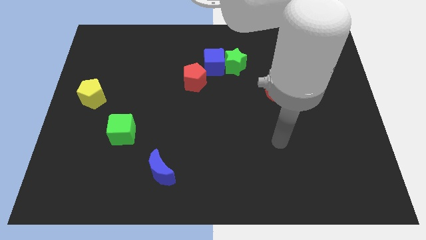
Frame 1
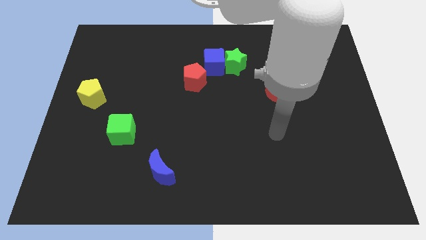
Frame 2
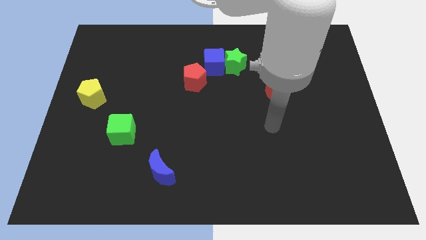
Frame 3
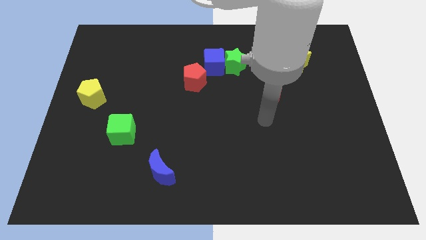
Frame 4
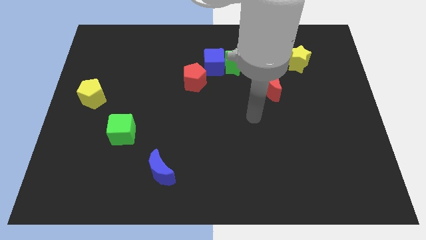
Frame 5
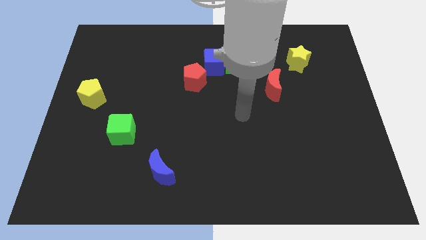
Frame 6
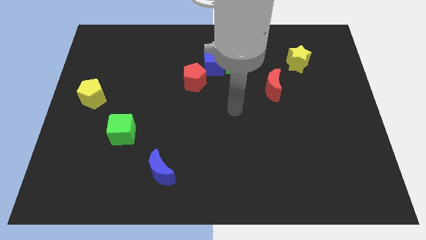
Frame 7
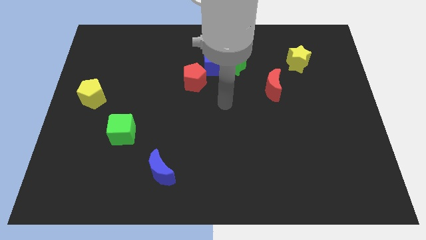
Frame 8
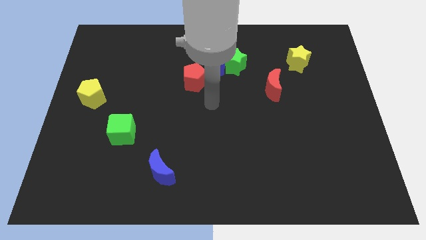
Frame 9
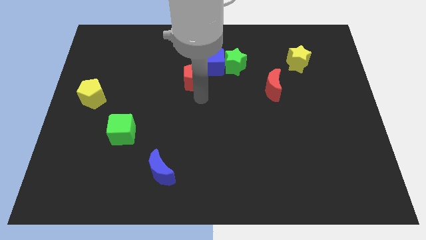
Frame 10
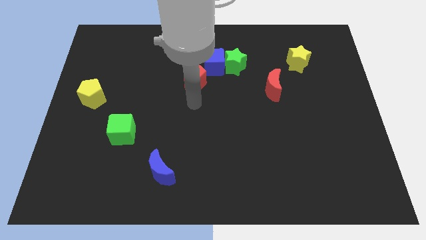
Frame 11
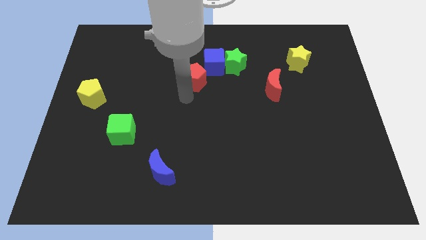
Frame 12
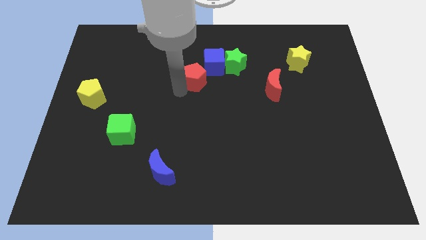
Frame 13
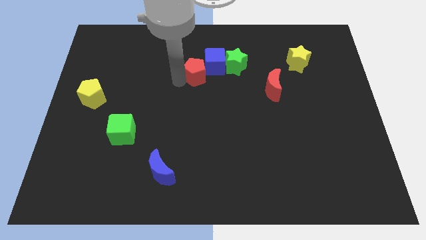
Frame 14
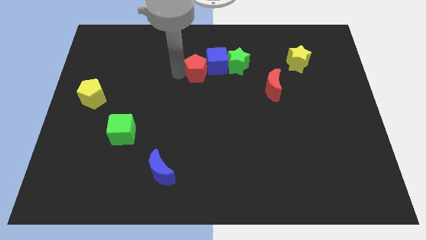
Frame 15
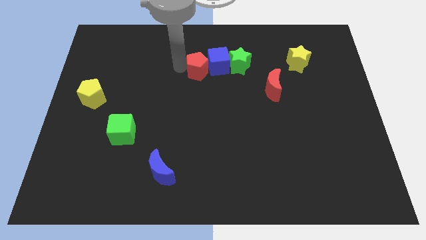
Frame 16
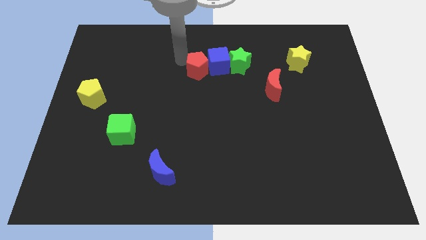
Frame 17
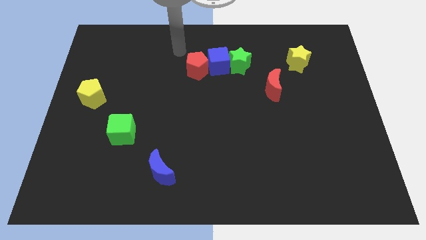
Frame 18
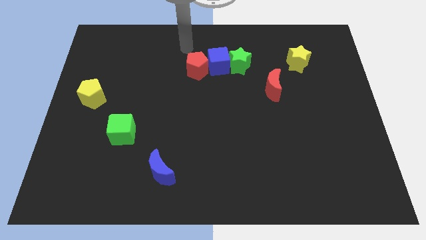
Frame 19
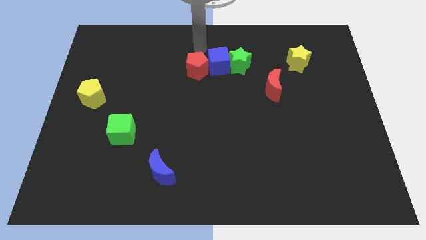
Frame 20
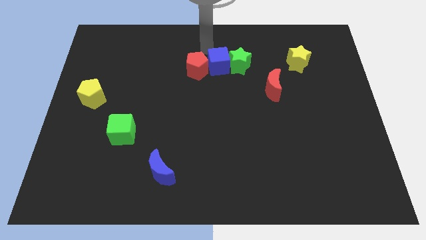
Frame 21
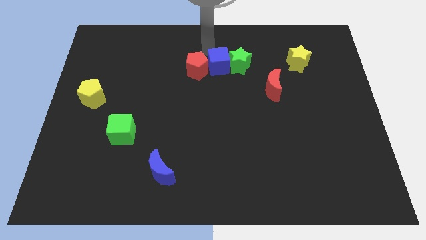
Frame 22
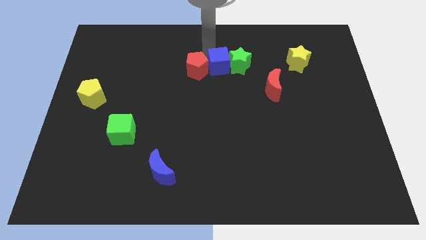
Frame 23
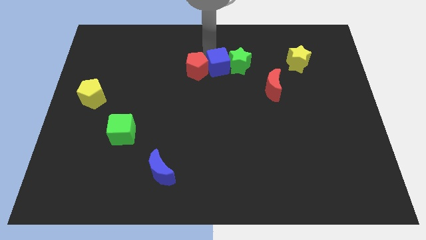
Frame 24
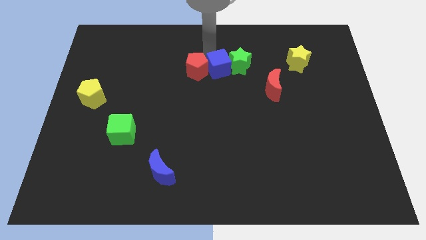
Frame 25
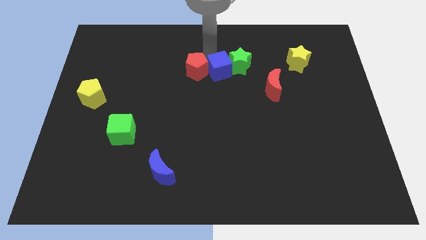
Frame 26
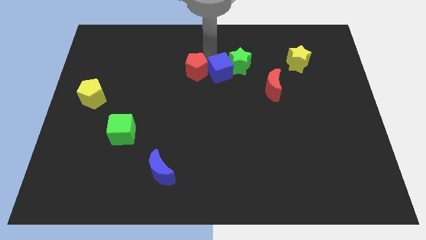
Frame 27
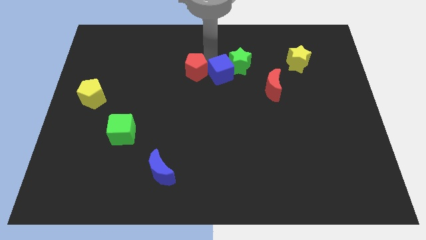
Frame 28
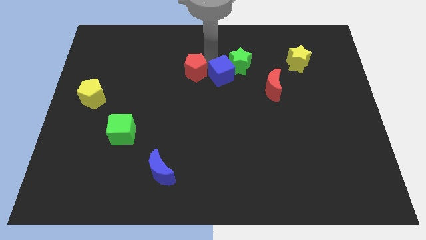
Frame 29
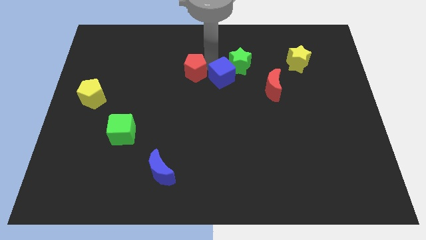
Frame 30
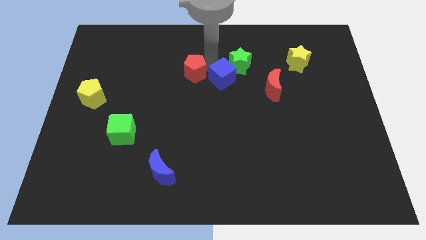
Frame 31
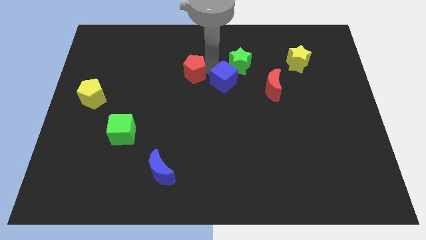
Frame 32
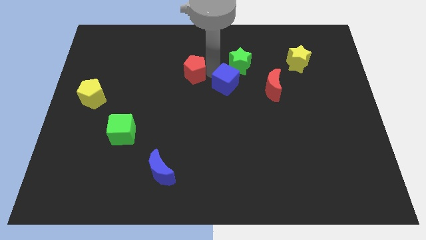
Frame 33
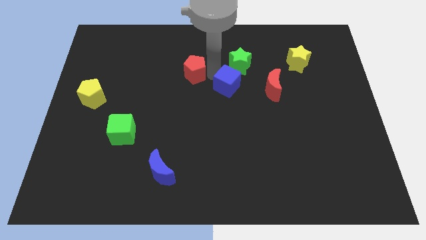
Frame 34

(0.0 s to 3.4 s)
slightly move the blue cube down and right diagonally

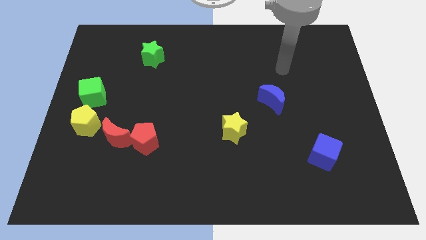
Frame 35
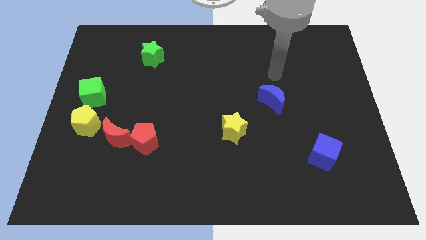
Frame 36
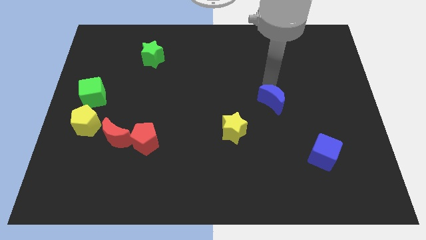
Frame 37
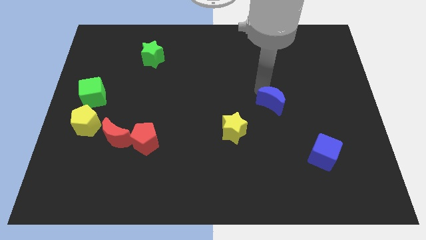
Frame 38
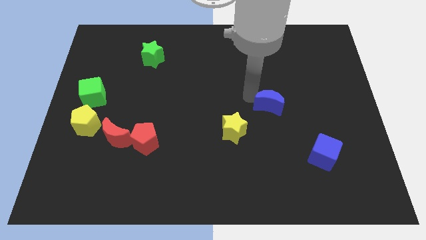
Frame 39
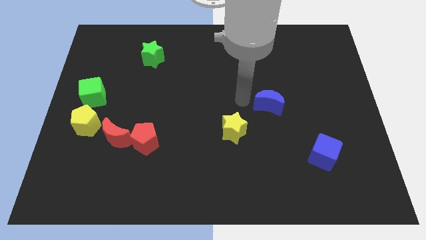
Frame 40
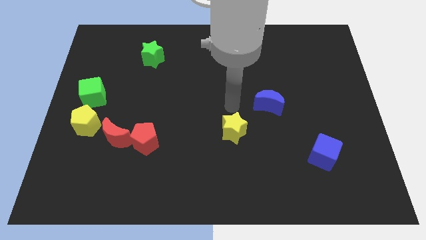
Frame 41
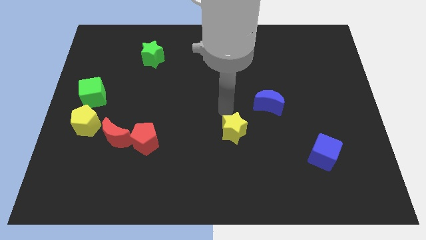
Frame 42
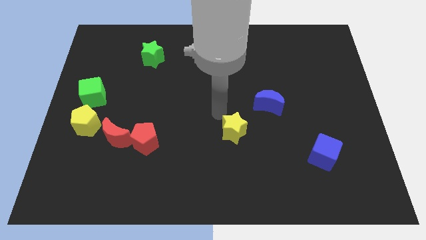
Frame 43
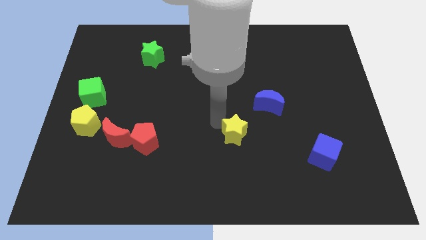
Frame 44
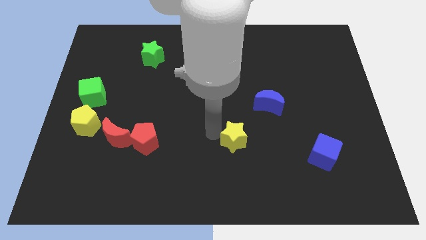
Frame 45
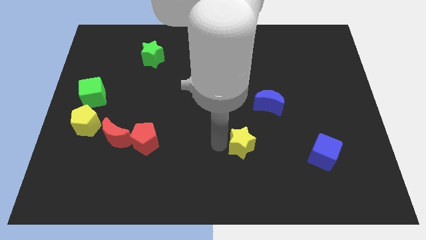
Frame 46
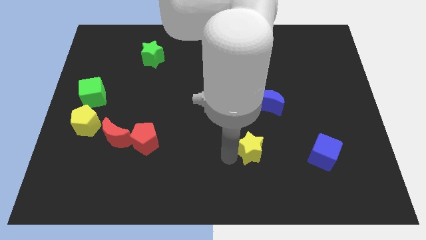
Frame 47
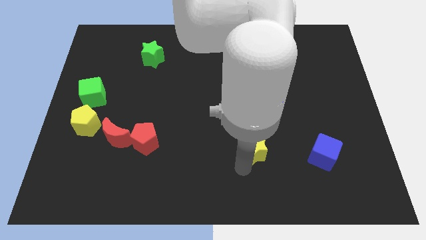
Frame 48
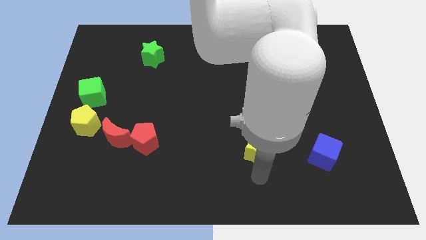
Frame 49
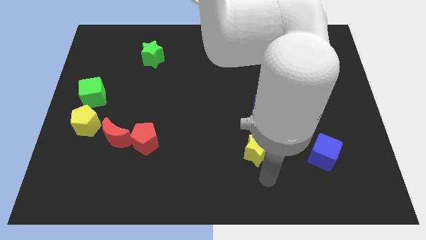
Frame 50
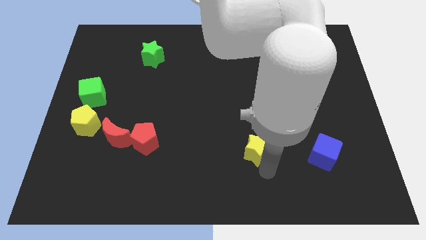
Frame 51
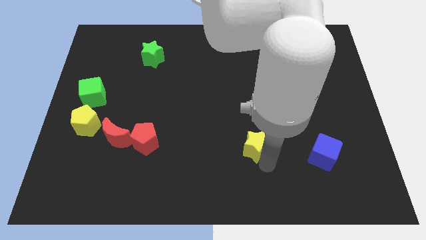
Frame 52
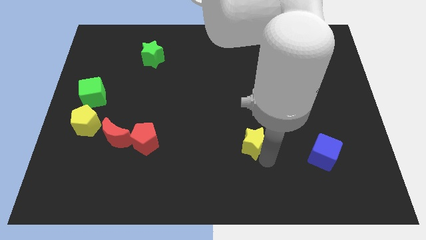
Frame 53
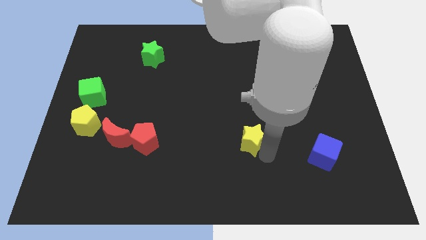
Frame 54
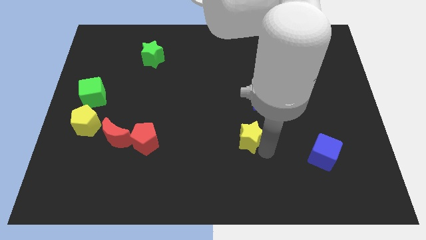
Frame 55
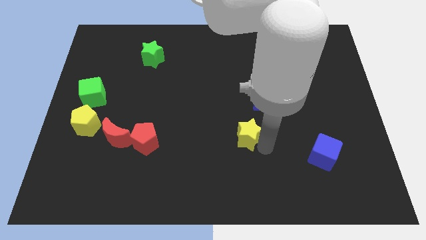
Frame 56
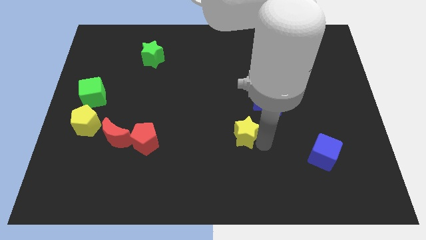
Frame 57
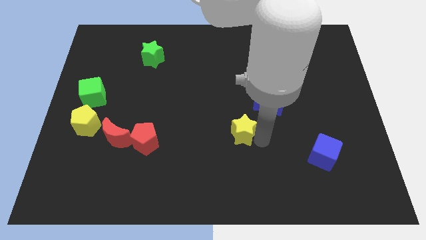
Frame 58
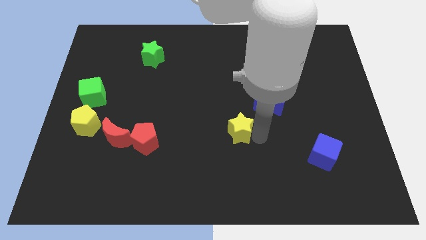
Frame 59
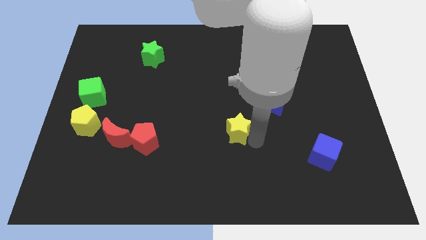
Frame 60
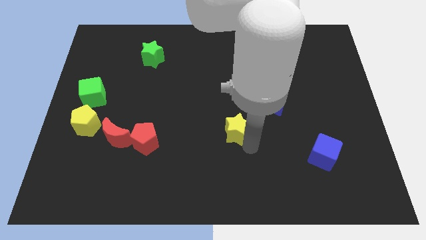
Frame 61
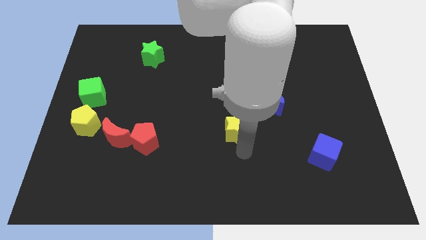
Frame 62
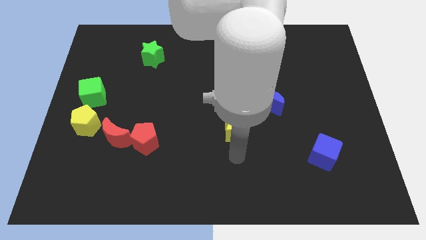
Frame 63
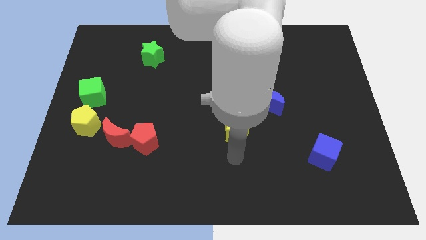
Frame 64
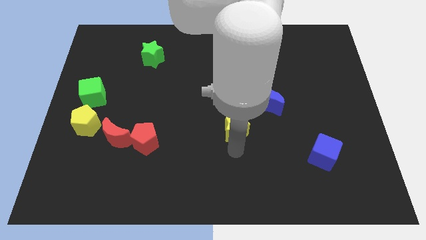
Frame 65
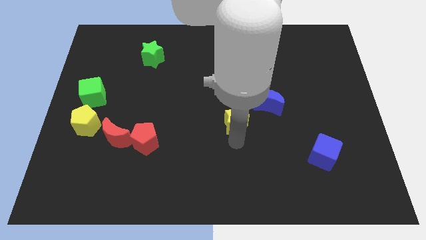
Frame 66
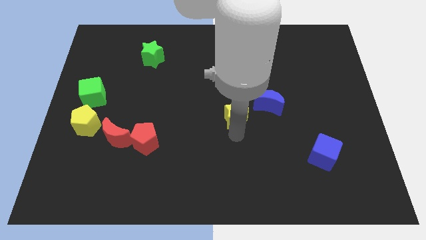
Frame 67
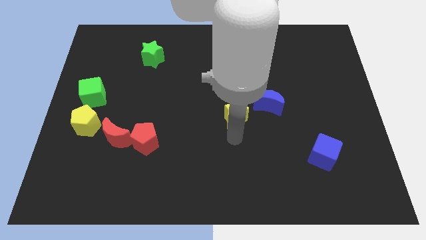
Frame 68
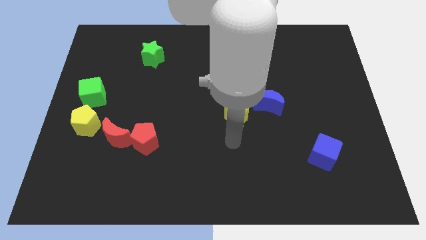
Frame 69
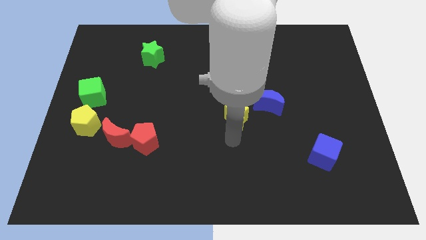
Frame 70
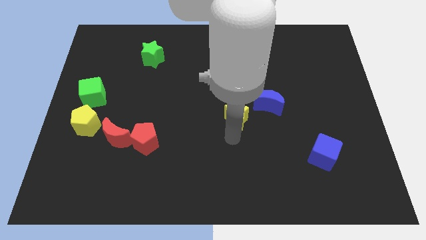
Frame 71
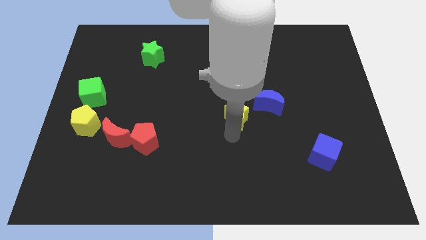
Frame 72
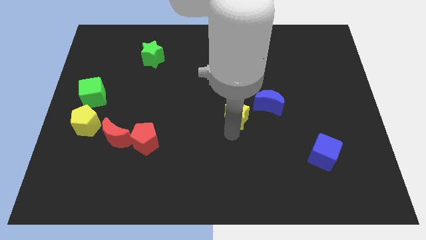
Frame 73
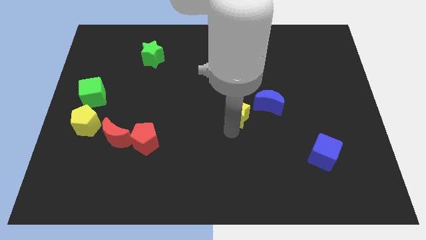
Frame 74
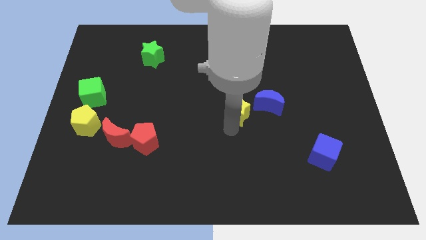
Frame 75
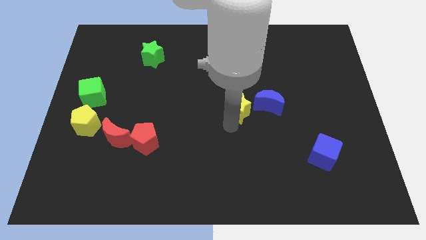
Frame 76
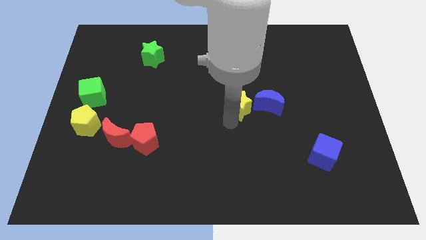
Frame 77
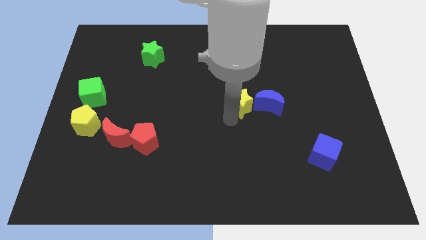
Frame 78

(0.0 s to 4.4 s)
move the yellow star up a bit
